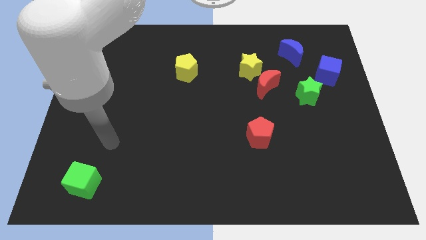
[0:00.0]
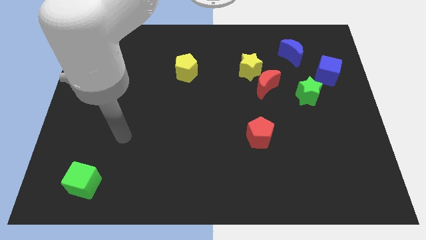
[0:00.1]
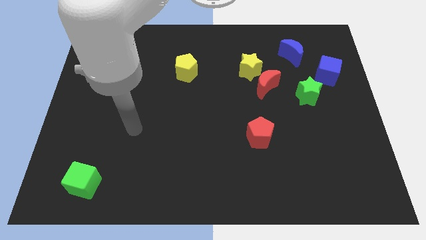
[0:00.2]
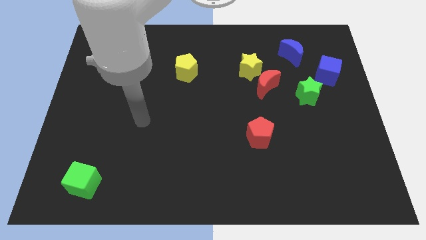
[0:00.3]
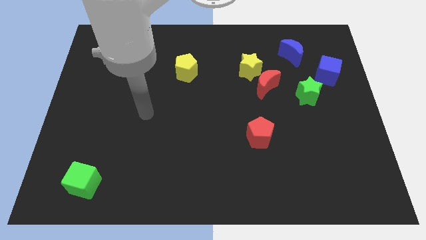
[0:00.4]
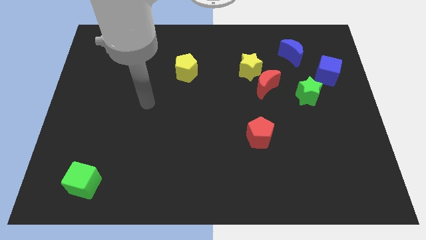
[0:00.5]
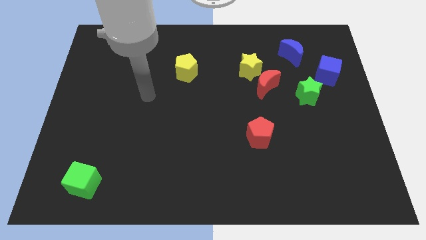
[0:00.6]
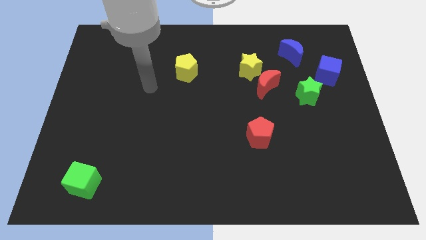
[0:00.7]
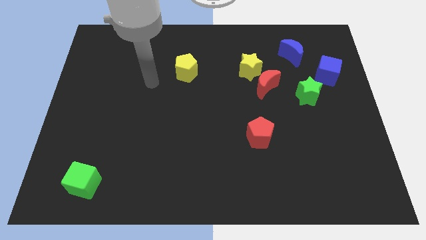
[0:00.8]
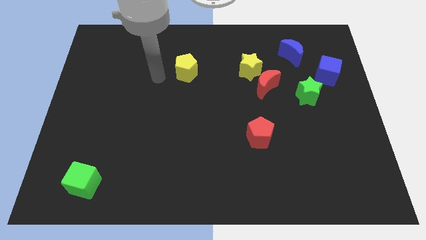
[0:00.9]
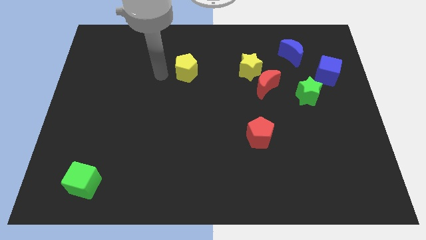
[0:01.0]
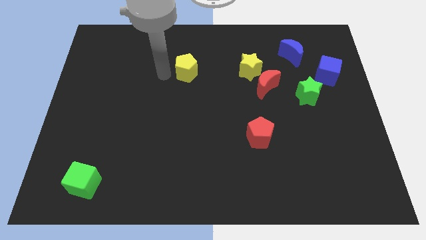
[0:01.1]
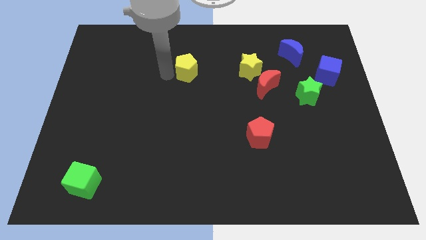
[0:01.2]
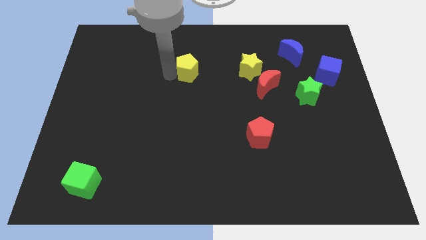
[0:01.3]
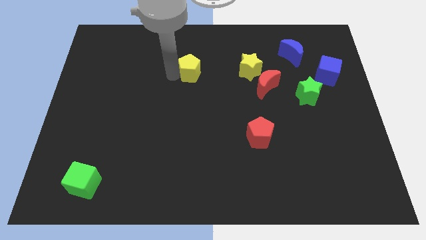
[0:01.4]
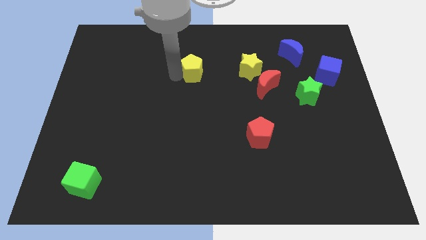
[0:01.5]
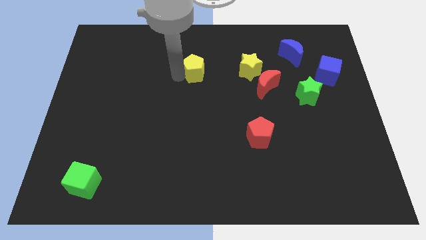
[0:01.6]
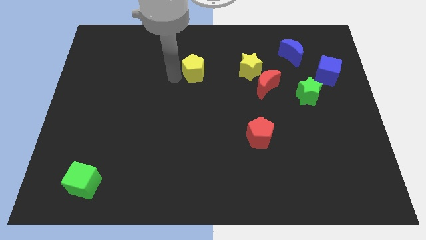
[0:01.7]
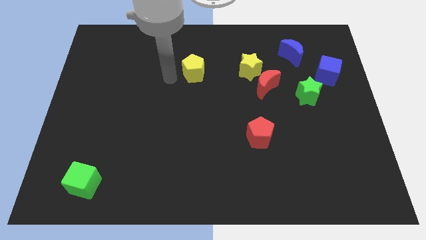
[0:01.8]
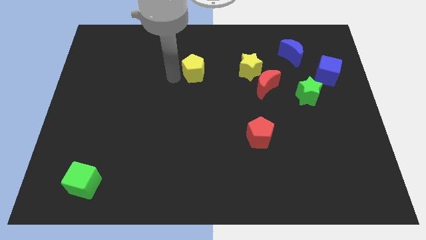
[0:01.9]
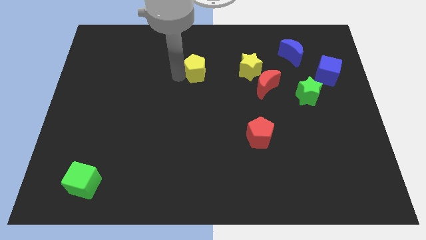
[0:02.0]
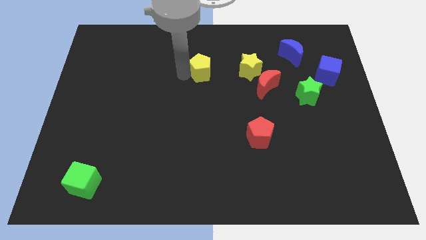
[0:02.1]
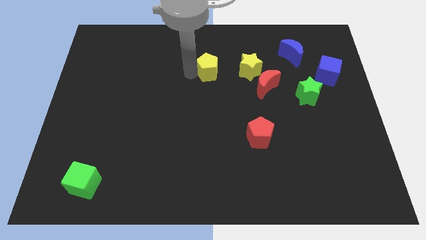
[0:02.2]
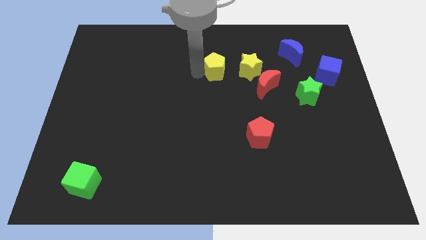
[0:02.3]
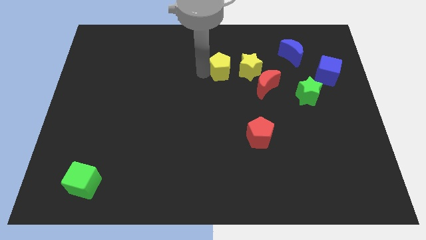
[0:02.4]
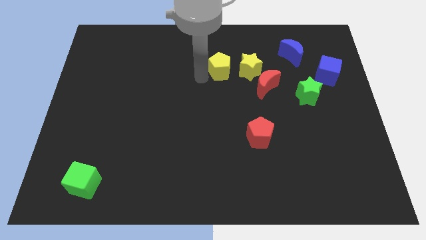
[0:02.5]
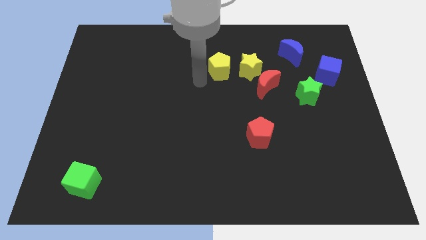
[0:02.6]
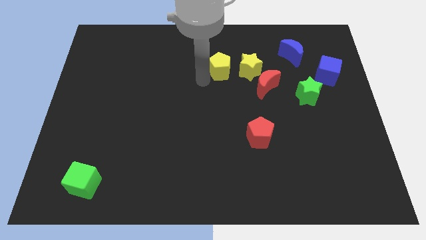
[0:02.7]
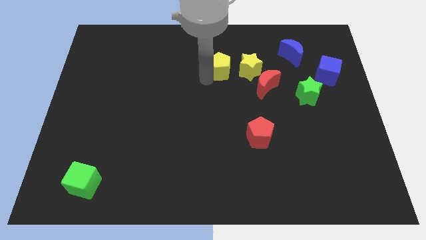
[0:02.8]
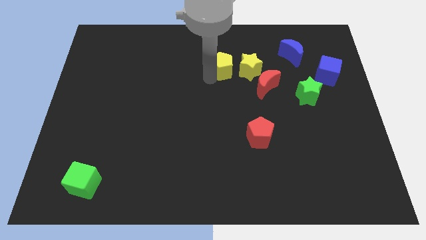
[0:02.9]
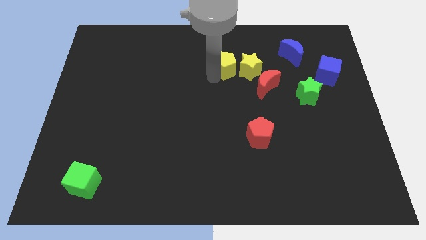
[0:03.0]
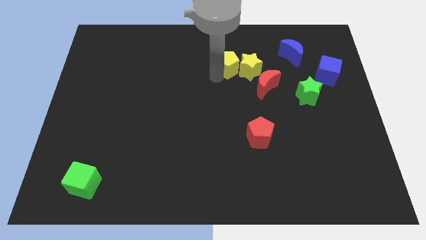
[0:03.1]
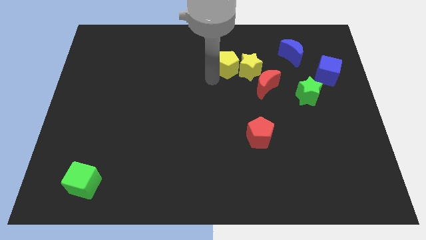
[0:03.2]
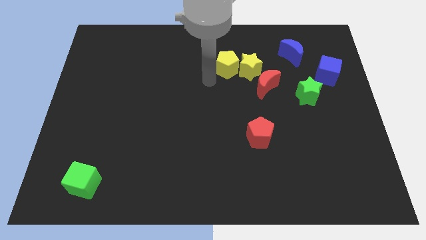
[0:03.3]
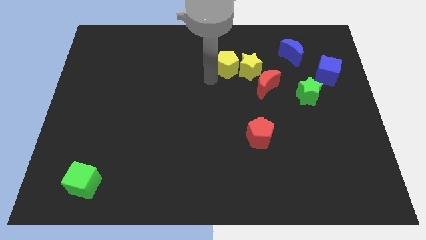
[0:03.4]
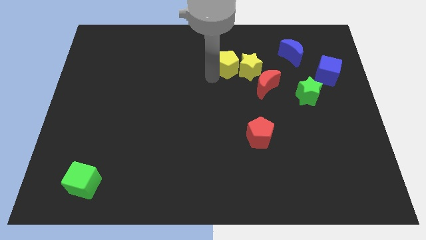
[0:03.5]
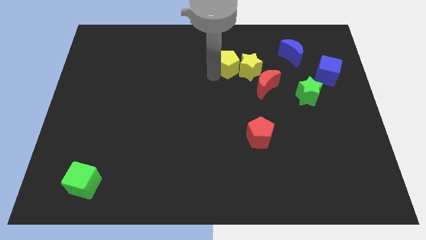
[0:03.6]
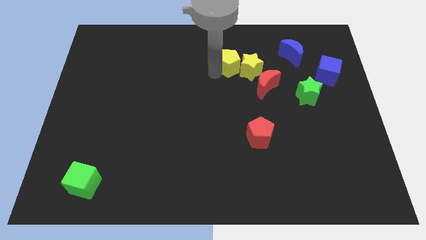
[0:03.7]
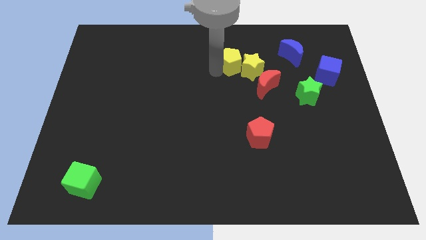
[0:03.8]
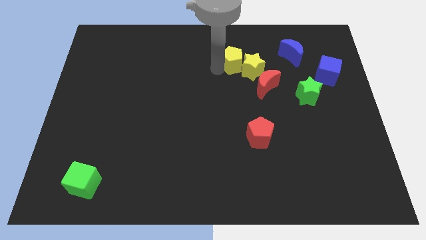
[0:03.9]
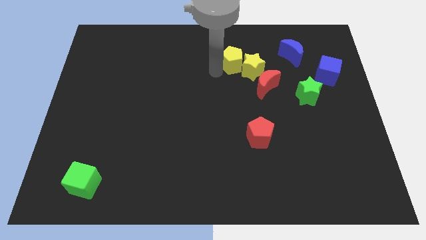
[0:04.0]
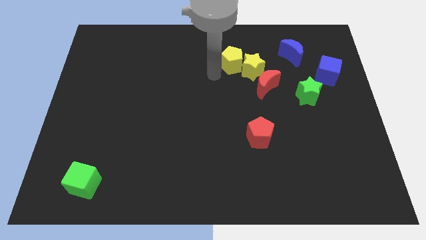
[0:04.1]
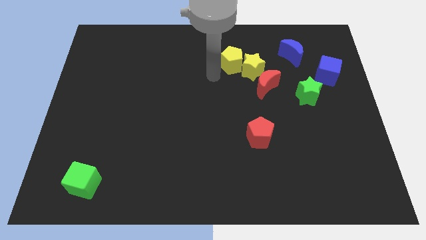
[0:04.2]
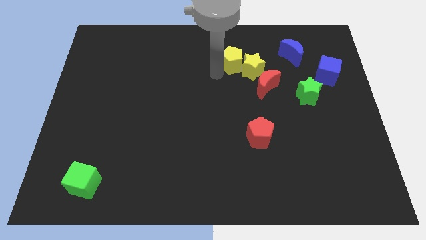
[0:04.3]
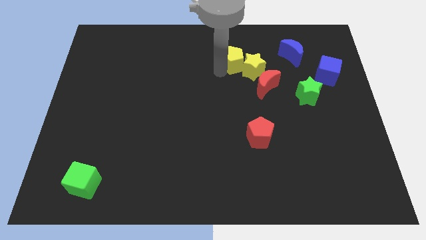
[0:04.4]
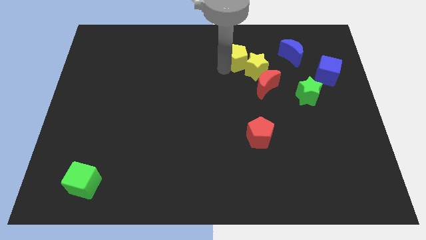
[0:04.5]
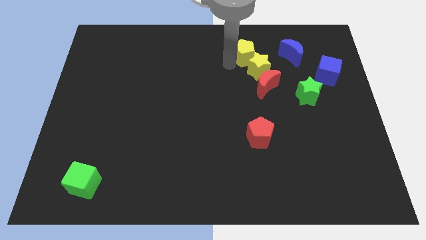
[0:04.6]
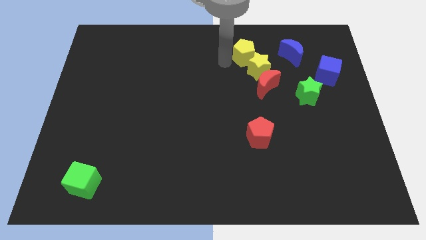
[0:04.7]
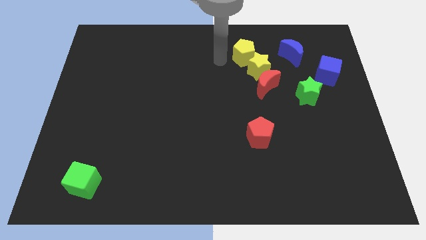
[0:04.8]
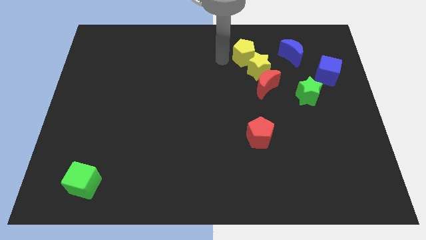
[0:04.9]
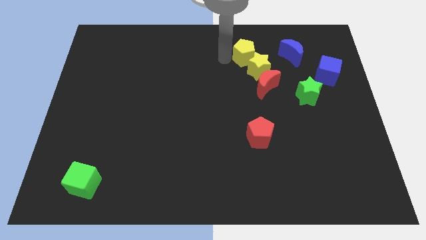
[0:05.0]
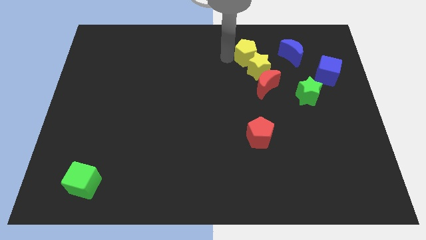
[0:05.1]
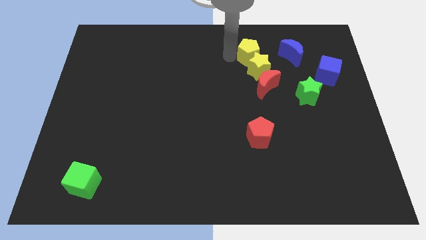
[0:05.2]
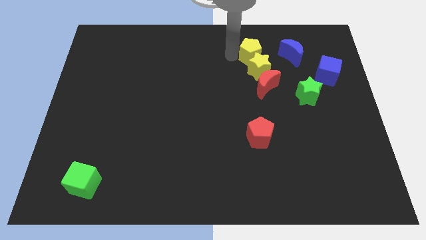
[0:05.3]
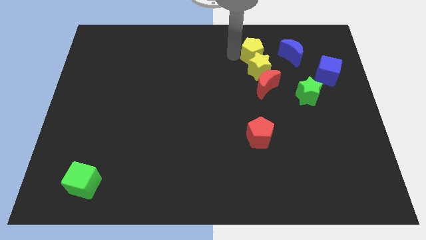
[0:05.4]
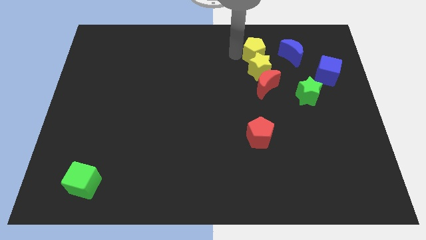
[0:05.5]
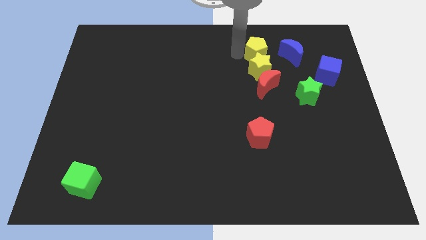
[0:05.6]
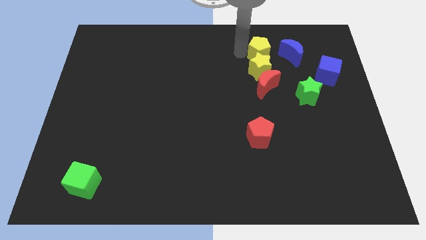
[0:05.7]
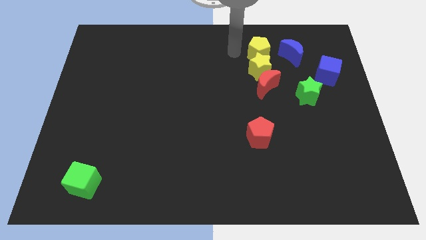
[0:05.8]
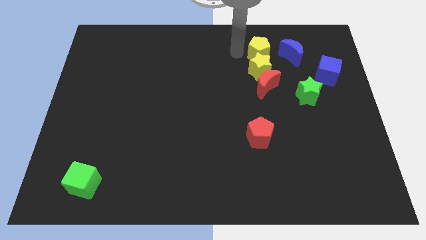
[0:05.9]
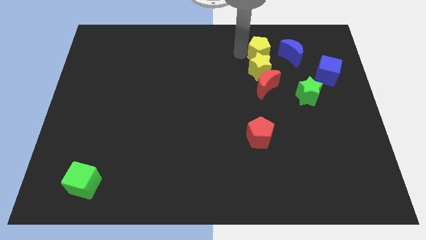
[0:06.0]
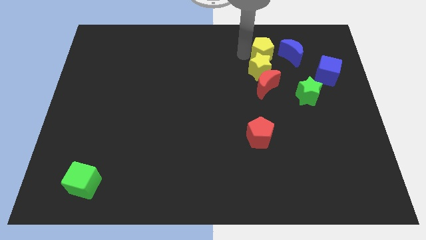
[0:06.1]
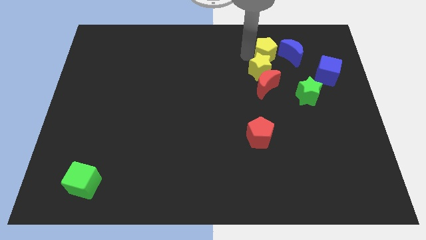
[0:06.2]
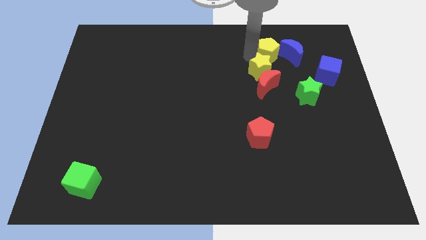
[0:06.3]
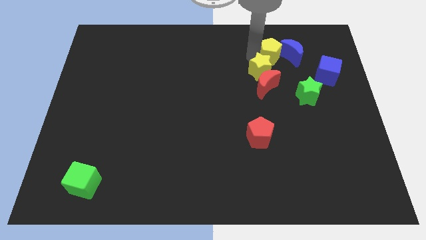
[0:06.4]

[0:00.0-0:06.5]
put the yellow pentagon next to the blue moon

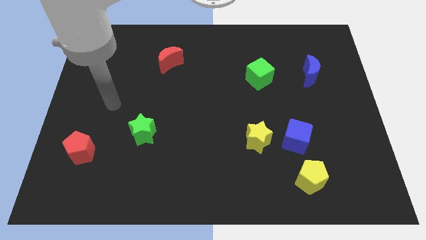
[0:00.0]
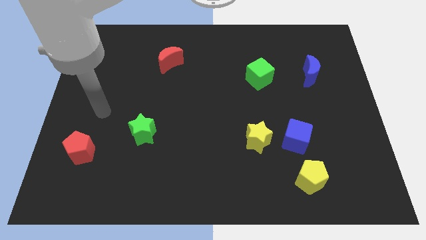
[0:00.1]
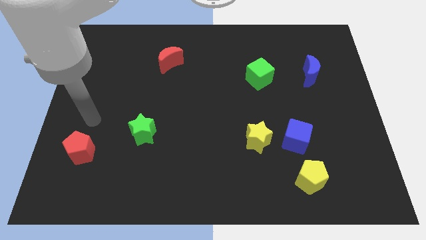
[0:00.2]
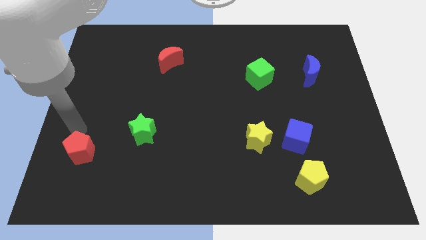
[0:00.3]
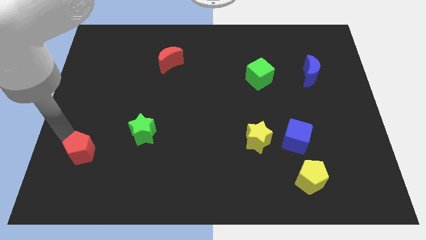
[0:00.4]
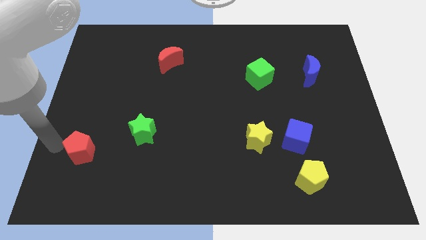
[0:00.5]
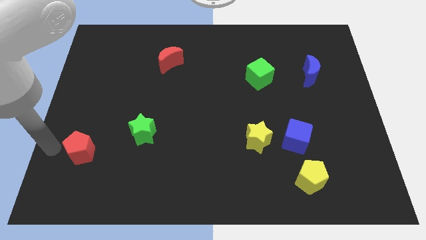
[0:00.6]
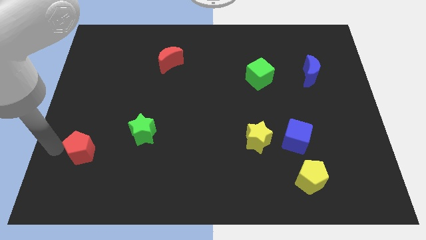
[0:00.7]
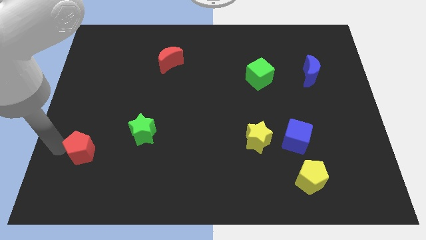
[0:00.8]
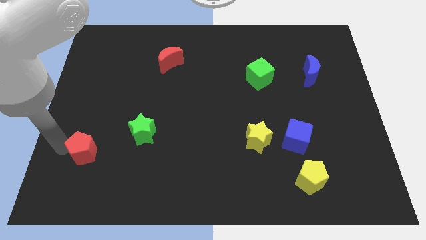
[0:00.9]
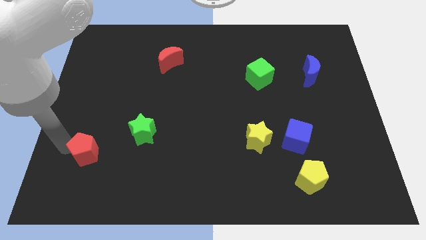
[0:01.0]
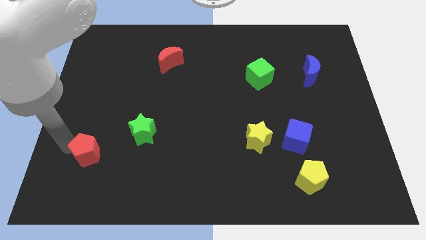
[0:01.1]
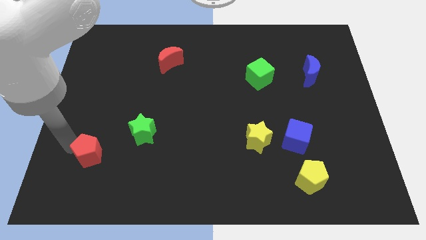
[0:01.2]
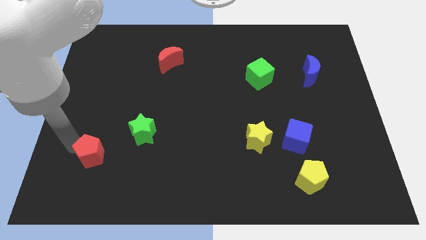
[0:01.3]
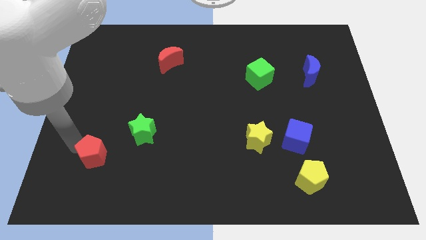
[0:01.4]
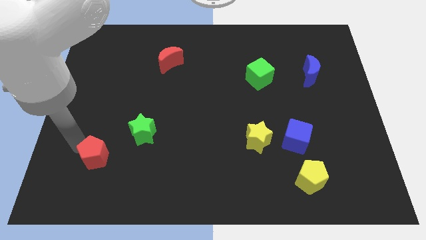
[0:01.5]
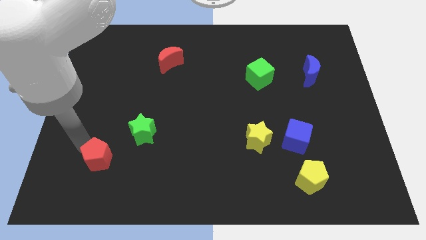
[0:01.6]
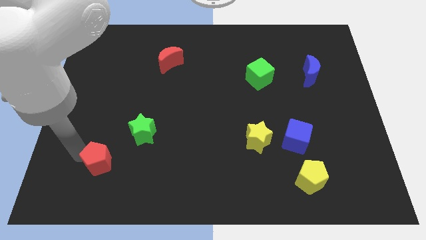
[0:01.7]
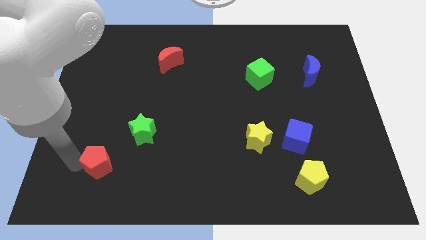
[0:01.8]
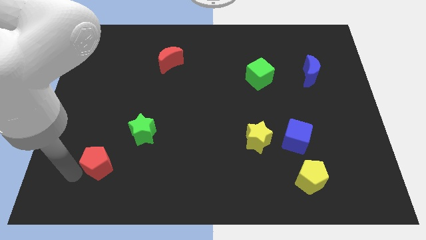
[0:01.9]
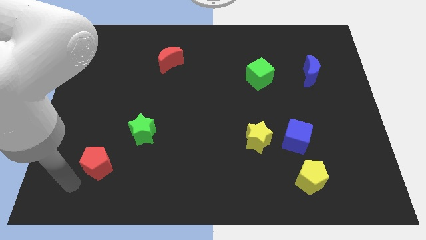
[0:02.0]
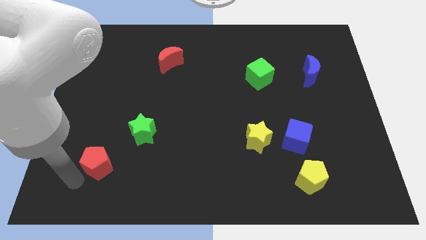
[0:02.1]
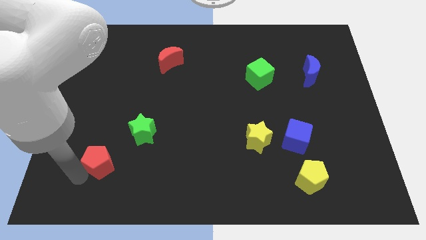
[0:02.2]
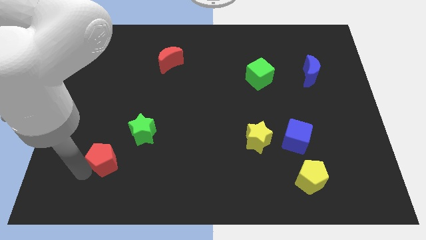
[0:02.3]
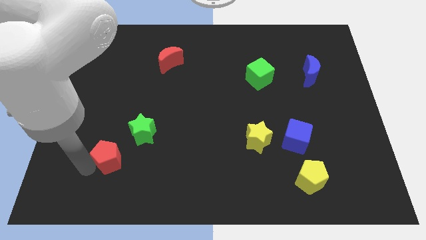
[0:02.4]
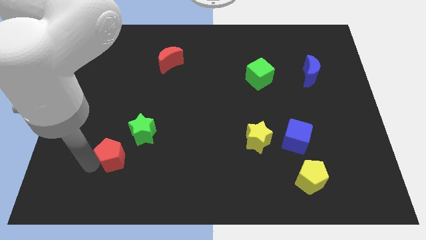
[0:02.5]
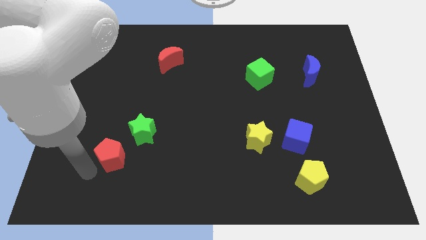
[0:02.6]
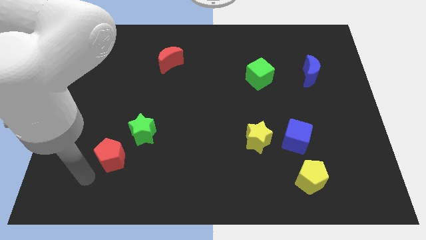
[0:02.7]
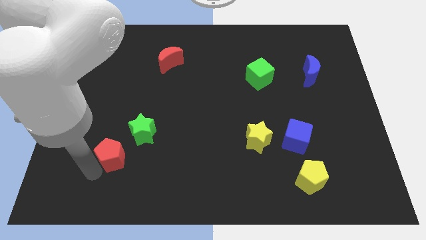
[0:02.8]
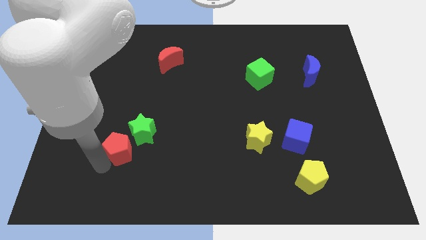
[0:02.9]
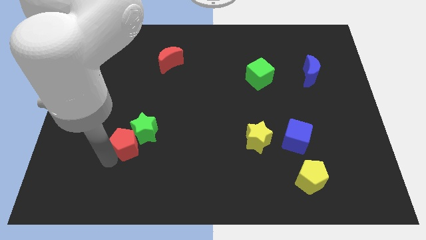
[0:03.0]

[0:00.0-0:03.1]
put the red pentagon to the green star
